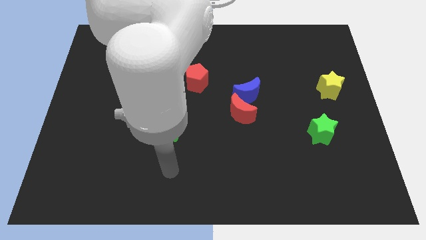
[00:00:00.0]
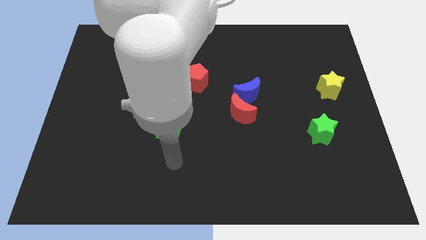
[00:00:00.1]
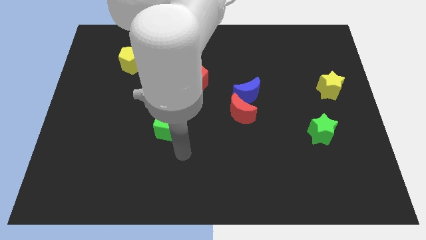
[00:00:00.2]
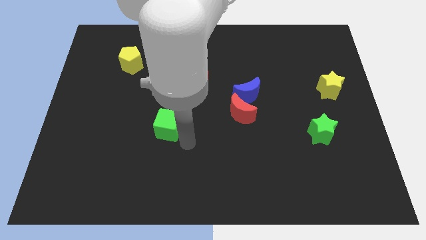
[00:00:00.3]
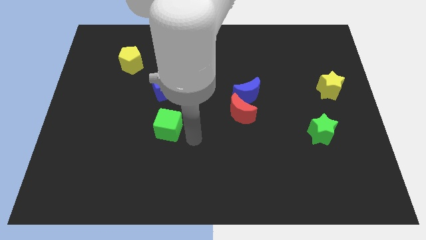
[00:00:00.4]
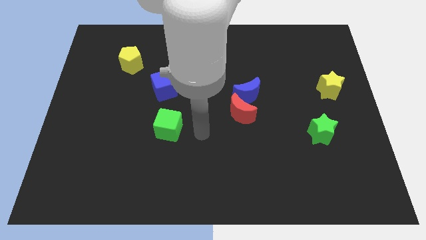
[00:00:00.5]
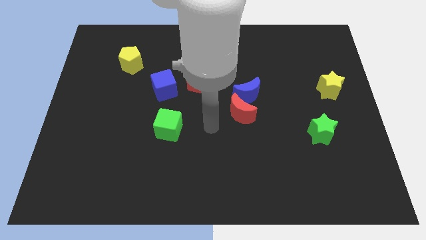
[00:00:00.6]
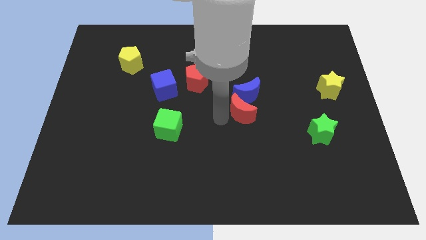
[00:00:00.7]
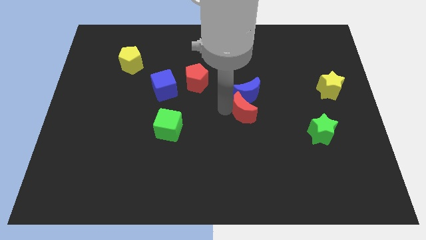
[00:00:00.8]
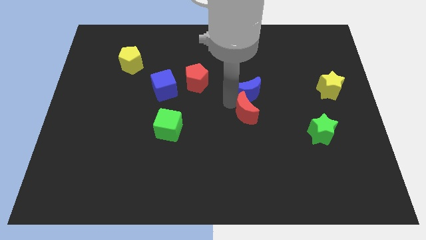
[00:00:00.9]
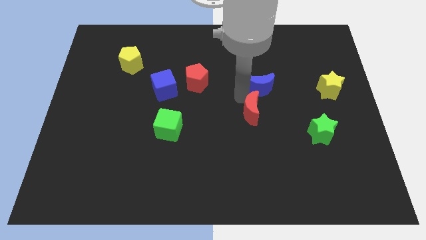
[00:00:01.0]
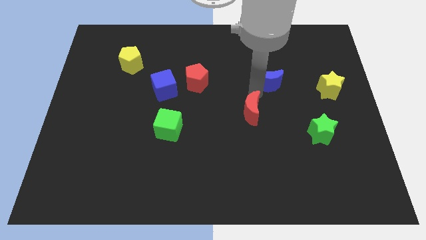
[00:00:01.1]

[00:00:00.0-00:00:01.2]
separate the red moon from the blue moon

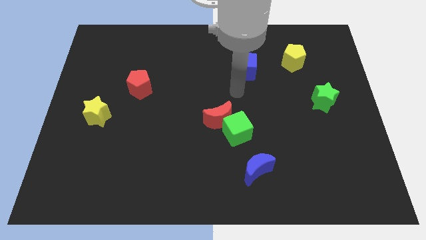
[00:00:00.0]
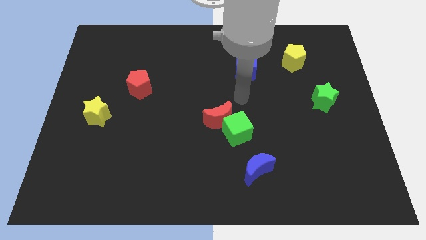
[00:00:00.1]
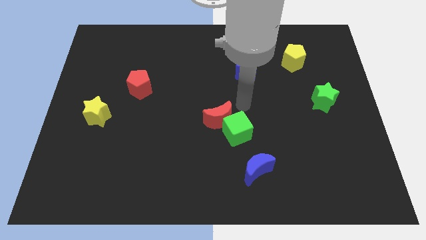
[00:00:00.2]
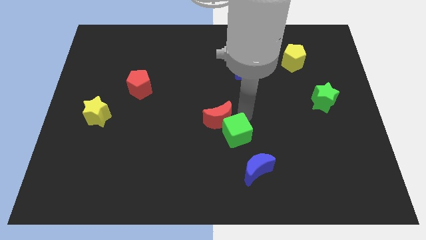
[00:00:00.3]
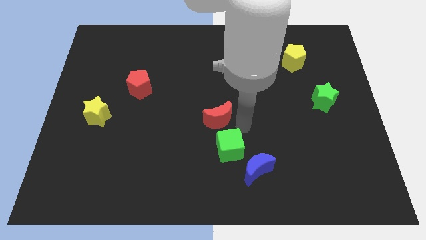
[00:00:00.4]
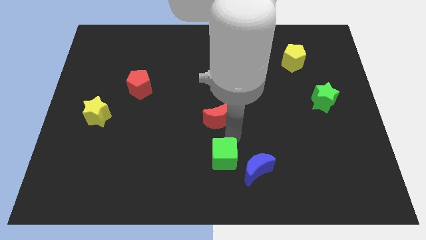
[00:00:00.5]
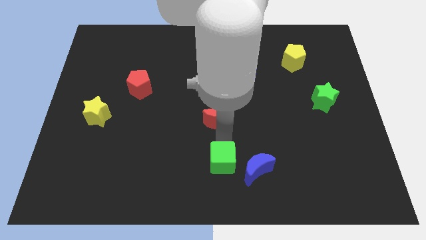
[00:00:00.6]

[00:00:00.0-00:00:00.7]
separate the red moon from the green cube

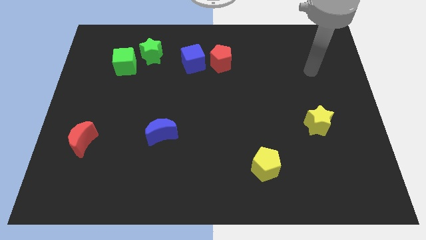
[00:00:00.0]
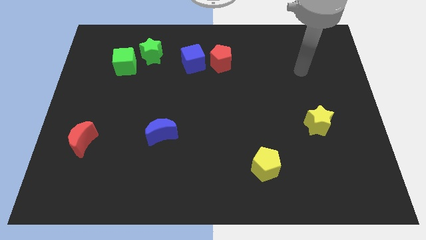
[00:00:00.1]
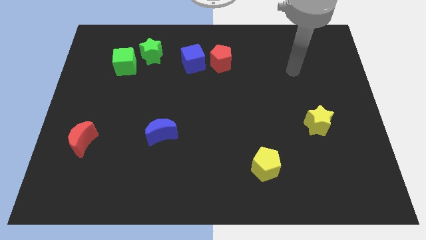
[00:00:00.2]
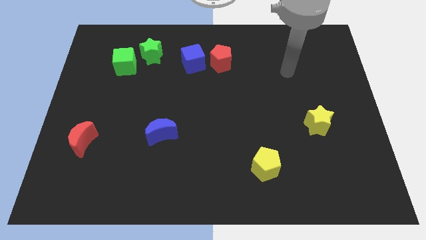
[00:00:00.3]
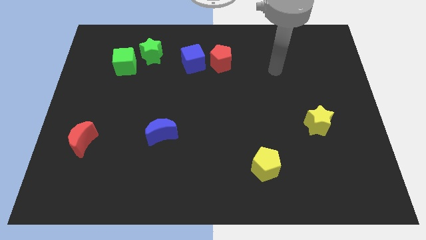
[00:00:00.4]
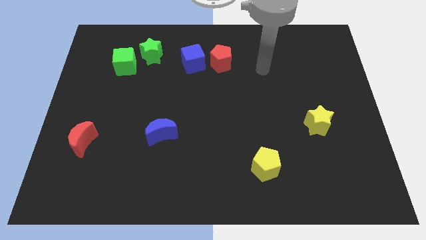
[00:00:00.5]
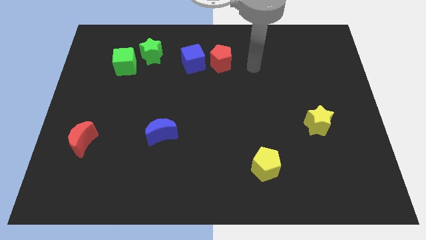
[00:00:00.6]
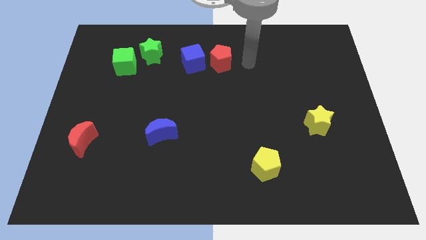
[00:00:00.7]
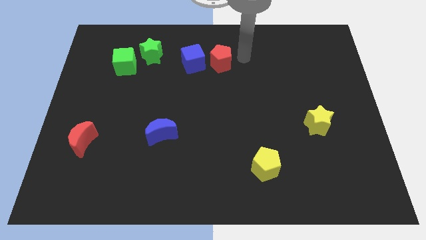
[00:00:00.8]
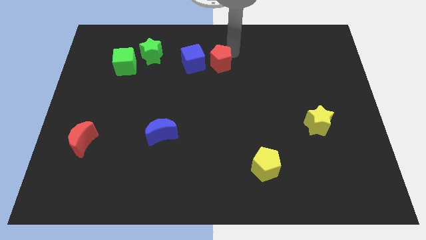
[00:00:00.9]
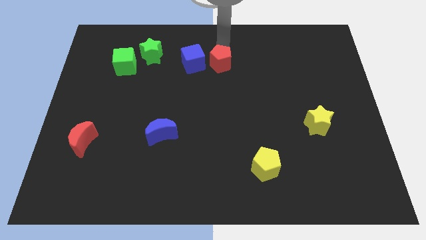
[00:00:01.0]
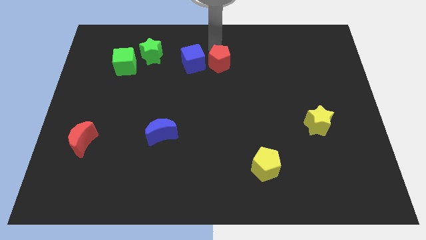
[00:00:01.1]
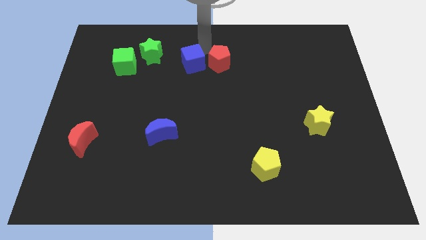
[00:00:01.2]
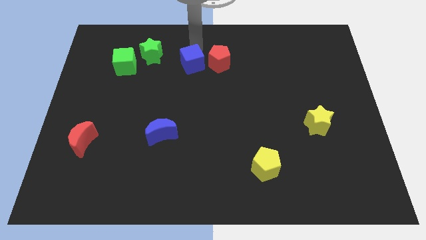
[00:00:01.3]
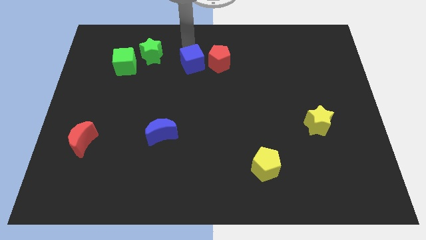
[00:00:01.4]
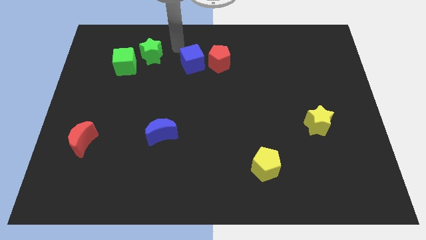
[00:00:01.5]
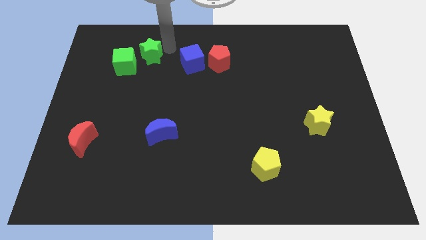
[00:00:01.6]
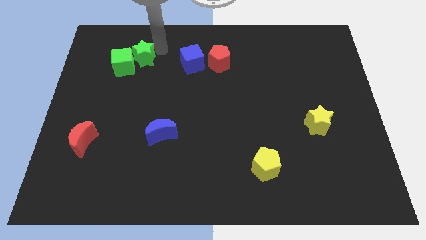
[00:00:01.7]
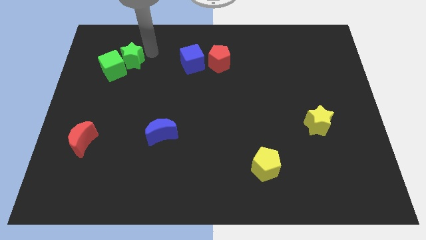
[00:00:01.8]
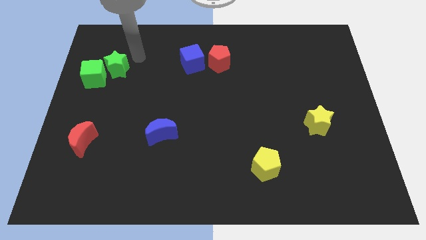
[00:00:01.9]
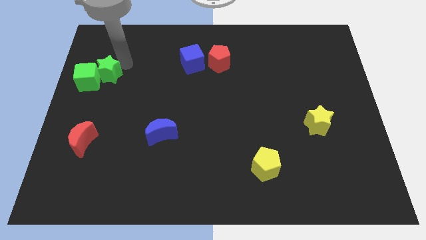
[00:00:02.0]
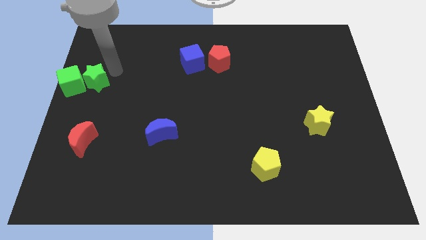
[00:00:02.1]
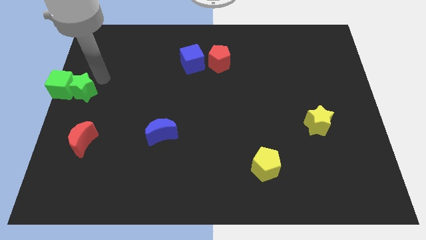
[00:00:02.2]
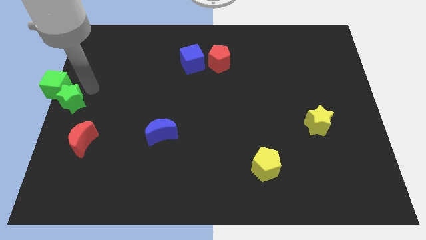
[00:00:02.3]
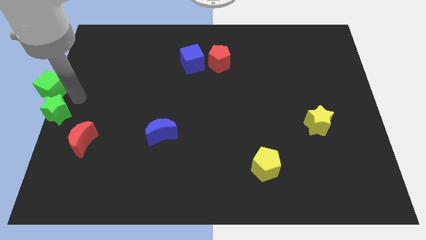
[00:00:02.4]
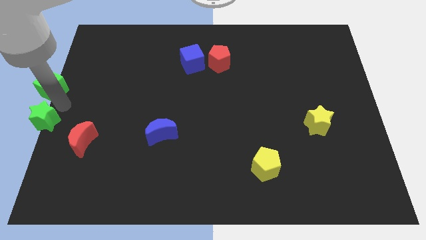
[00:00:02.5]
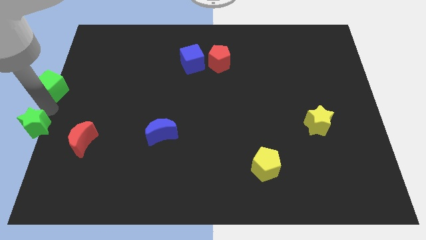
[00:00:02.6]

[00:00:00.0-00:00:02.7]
separate the green cube from the green star

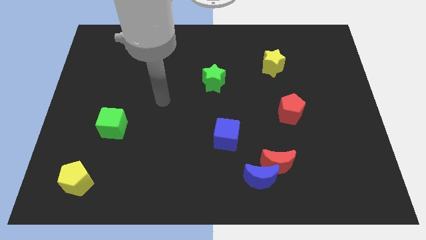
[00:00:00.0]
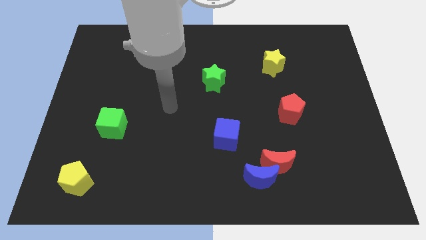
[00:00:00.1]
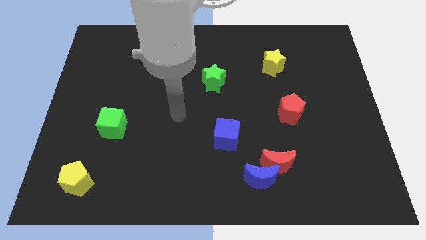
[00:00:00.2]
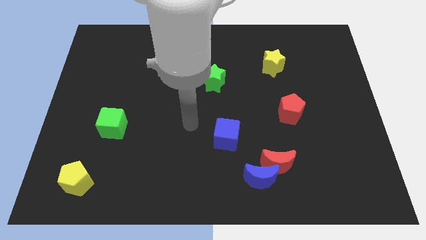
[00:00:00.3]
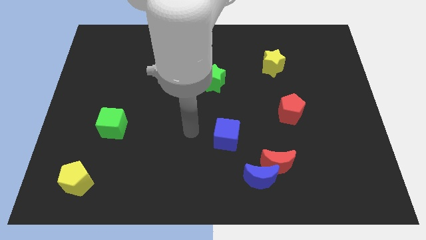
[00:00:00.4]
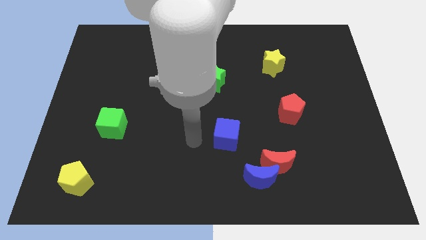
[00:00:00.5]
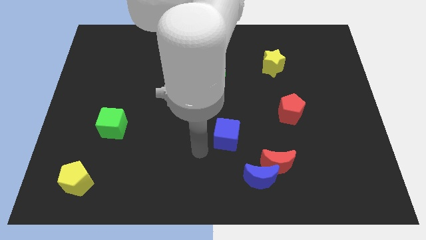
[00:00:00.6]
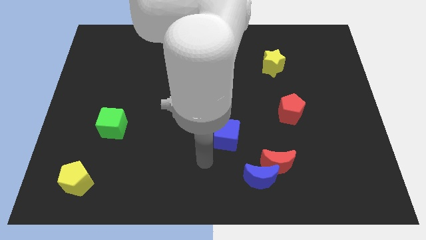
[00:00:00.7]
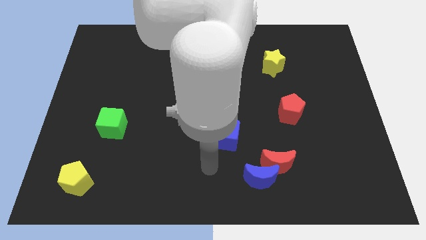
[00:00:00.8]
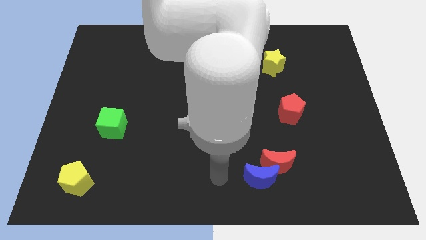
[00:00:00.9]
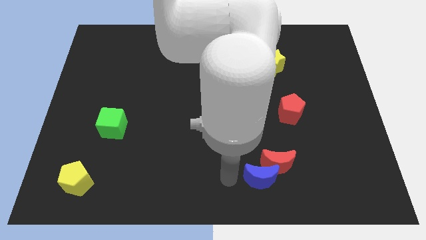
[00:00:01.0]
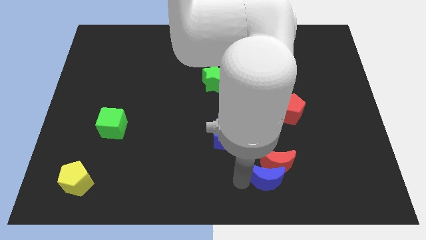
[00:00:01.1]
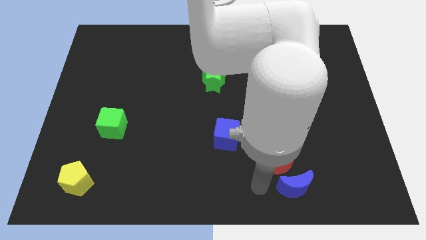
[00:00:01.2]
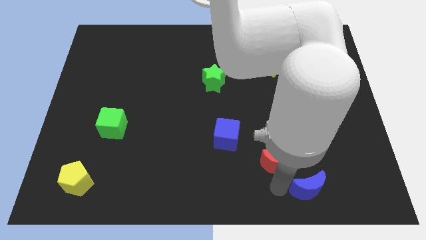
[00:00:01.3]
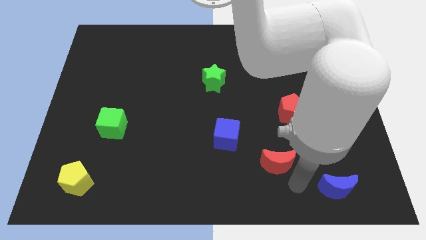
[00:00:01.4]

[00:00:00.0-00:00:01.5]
move the red moon away from the blue moon

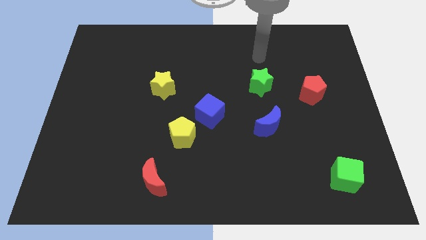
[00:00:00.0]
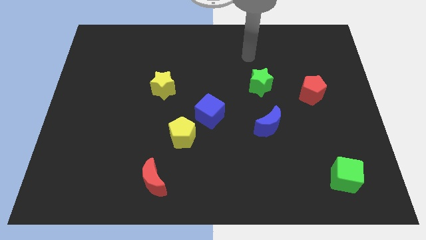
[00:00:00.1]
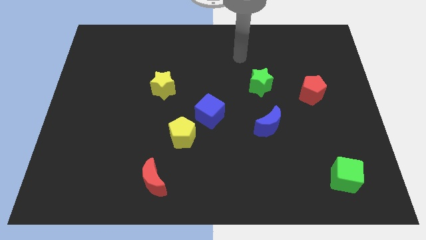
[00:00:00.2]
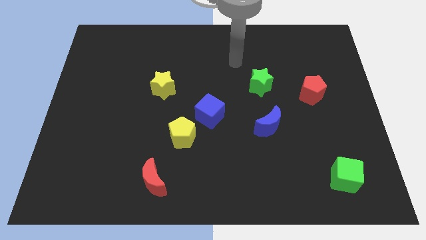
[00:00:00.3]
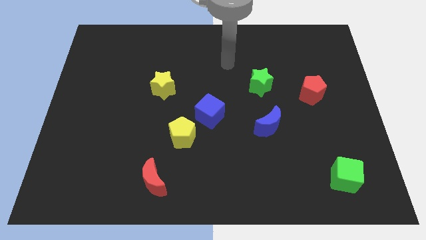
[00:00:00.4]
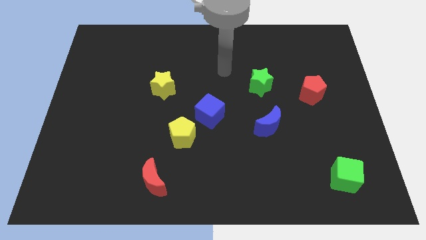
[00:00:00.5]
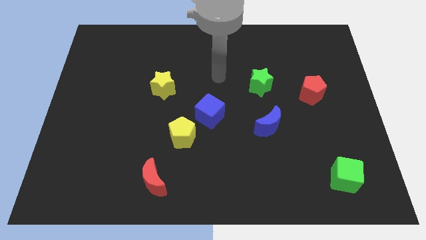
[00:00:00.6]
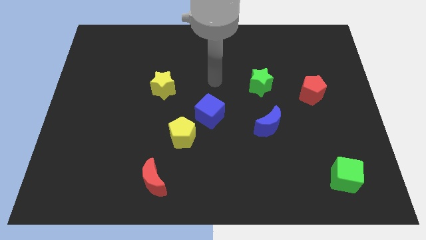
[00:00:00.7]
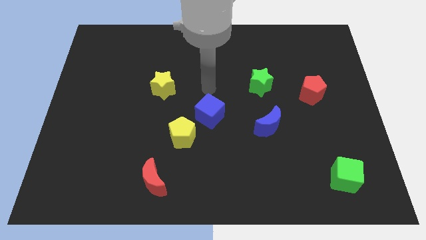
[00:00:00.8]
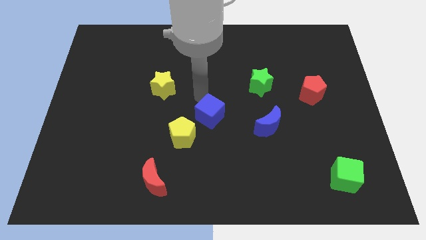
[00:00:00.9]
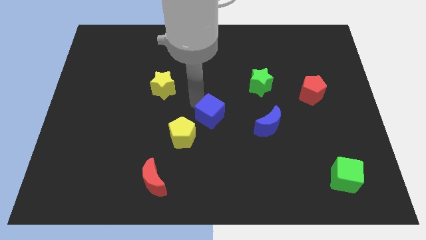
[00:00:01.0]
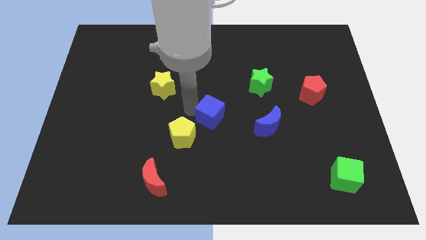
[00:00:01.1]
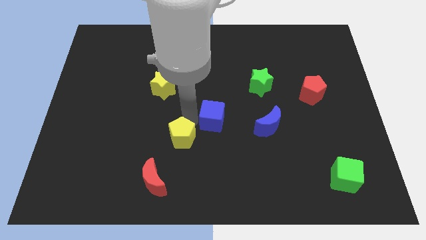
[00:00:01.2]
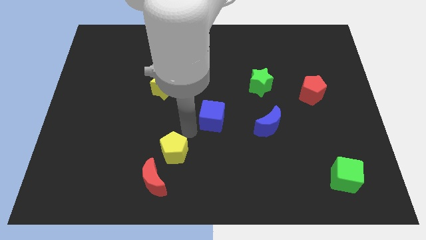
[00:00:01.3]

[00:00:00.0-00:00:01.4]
move the blue cube away from the yellow pentagon

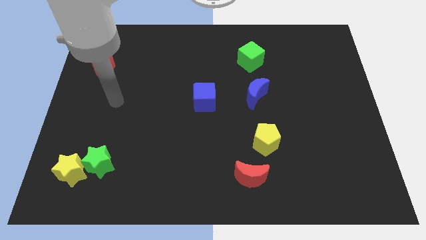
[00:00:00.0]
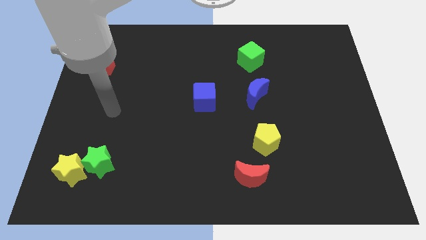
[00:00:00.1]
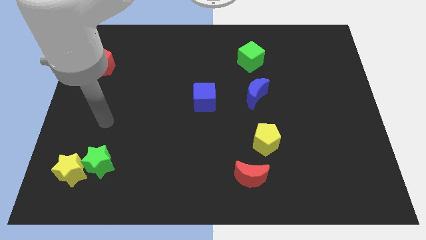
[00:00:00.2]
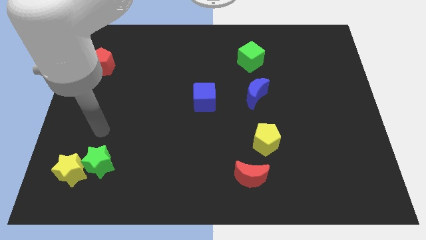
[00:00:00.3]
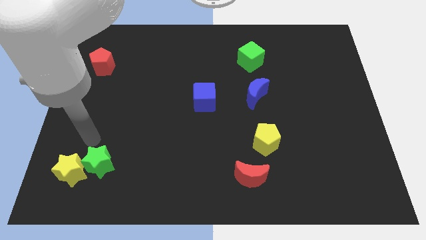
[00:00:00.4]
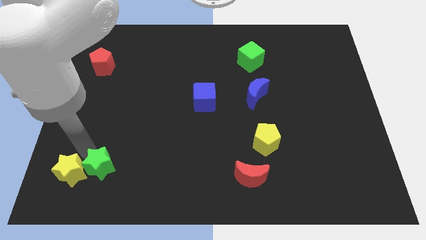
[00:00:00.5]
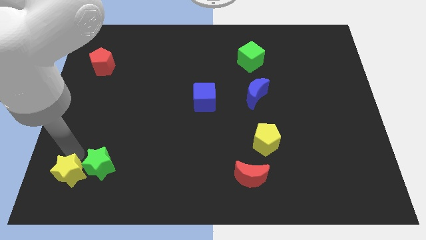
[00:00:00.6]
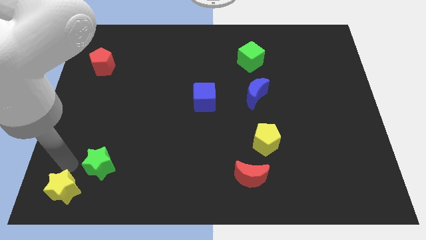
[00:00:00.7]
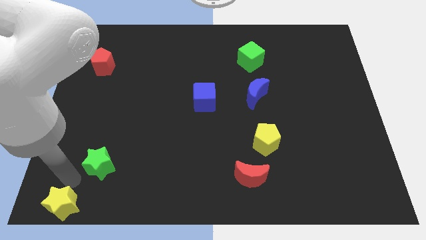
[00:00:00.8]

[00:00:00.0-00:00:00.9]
move the green star away from the yellow star

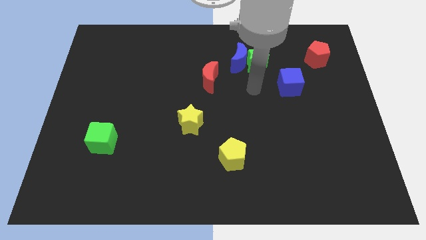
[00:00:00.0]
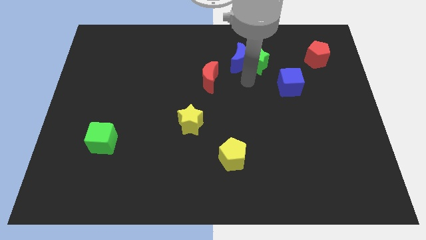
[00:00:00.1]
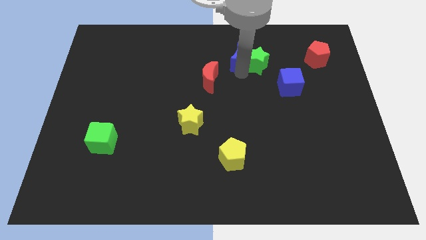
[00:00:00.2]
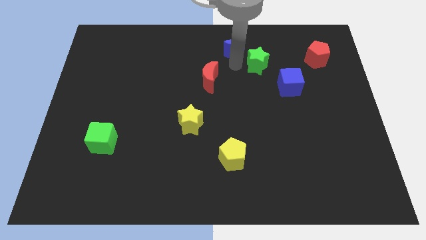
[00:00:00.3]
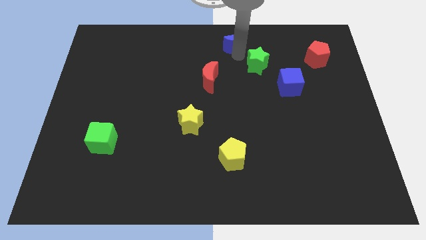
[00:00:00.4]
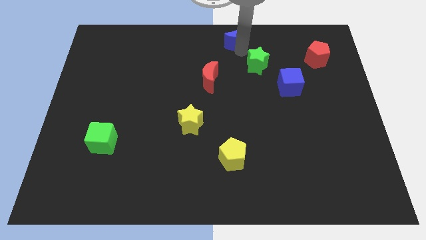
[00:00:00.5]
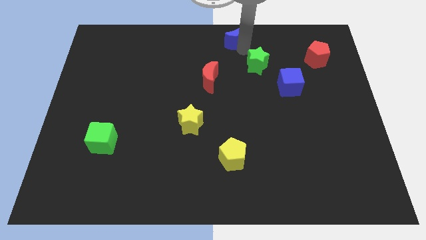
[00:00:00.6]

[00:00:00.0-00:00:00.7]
pull the green star apart from the blue moon
